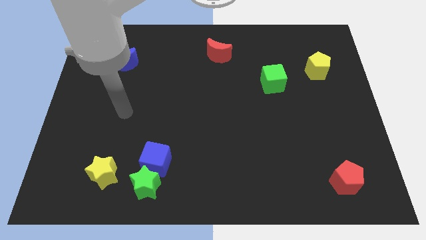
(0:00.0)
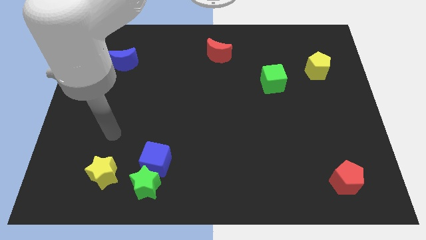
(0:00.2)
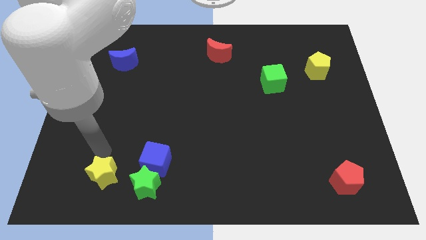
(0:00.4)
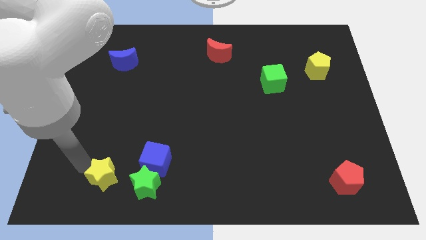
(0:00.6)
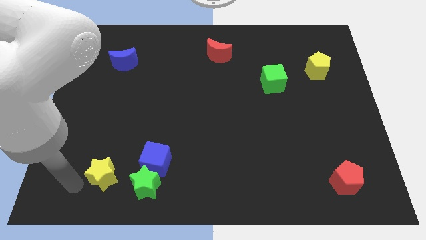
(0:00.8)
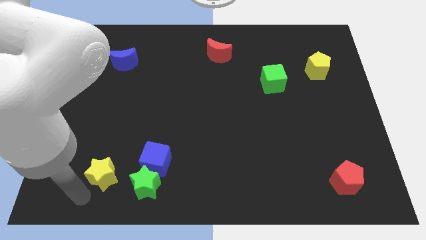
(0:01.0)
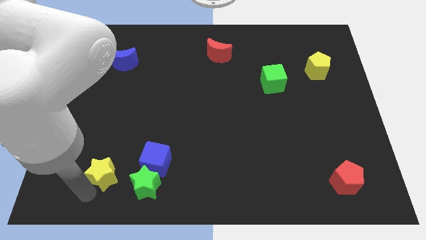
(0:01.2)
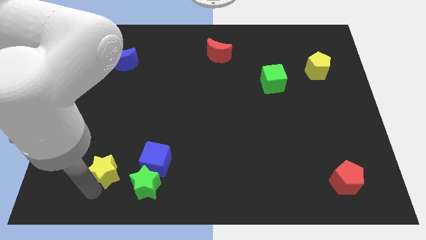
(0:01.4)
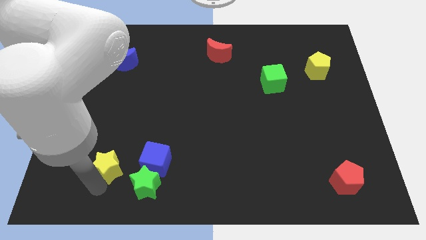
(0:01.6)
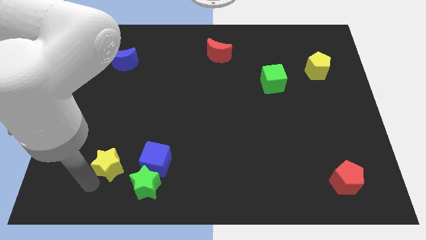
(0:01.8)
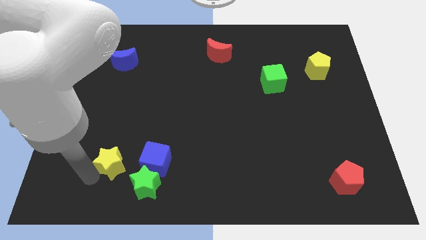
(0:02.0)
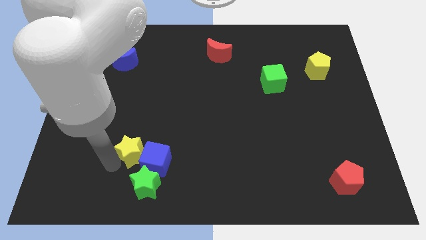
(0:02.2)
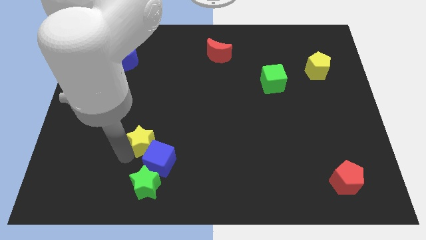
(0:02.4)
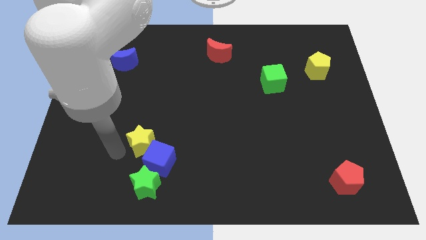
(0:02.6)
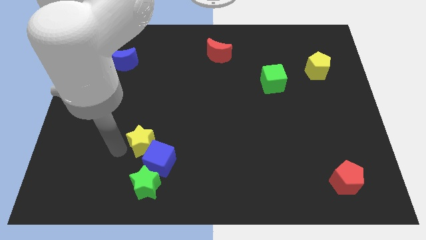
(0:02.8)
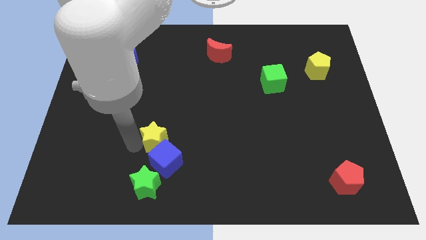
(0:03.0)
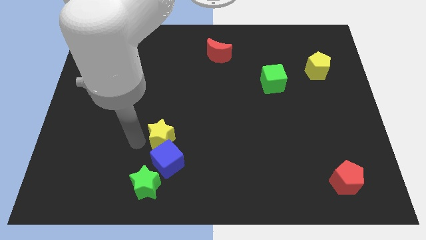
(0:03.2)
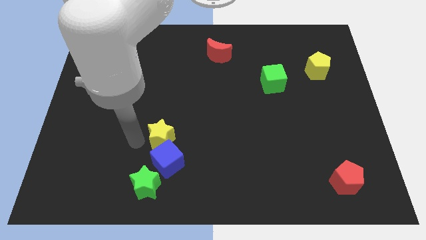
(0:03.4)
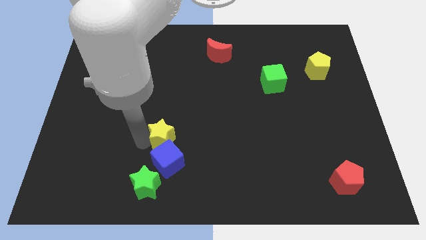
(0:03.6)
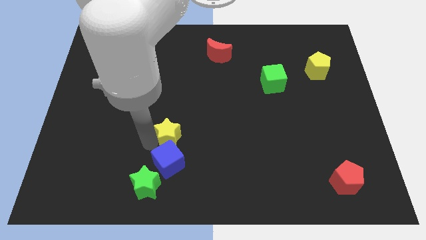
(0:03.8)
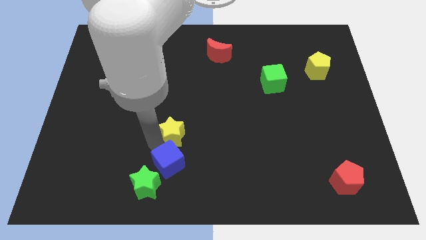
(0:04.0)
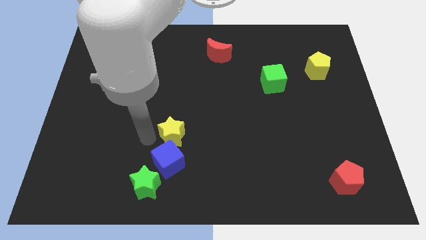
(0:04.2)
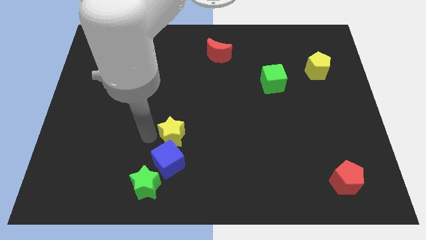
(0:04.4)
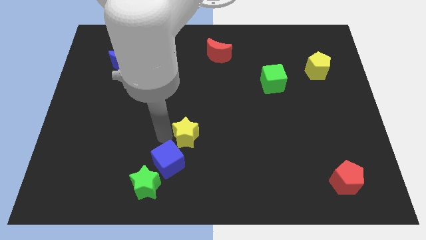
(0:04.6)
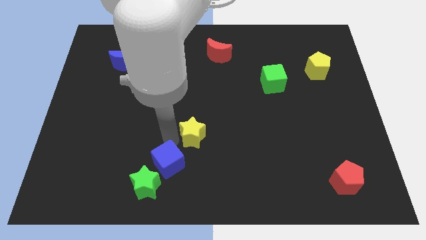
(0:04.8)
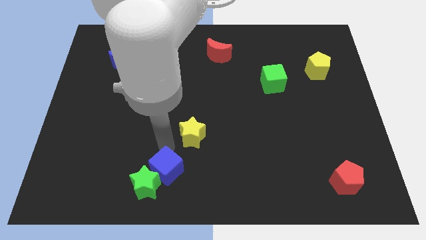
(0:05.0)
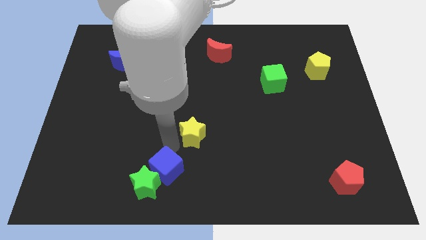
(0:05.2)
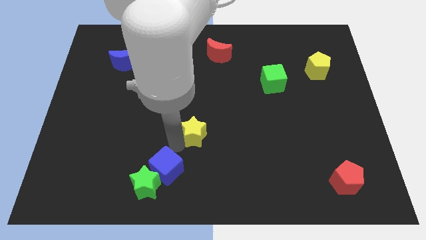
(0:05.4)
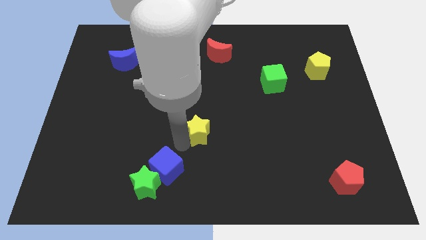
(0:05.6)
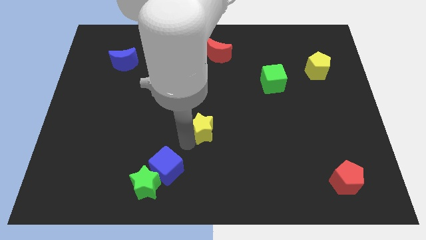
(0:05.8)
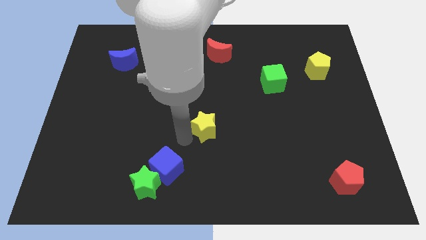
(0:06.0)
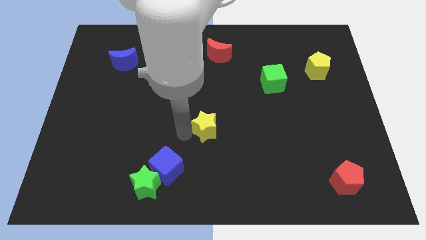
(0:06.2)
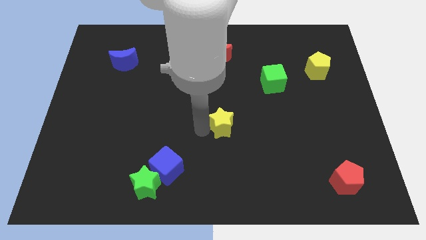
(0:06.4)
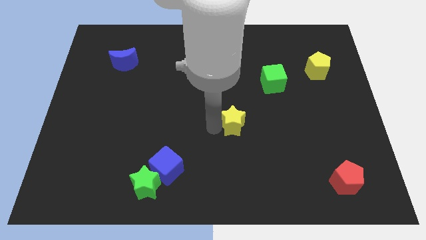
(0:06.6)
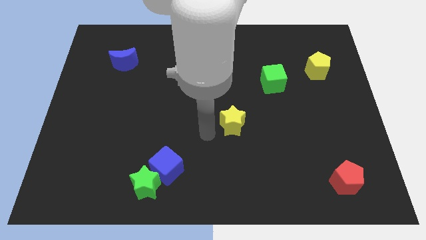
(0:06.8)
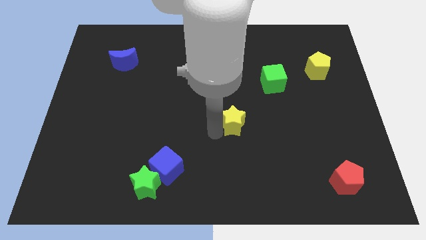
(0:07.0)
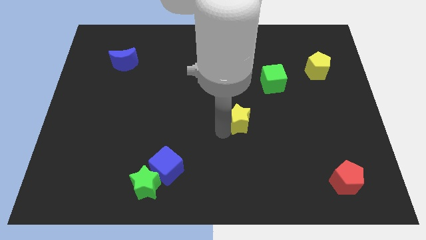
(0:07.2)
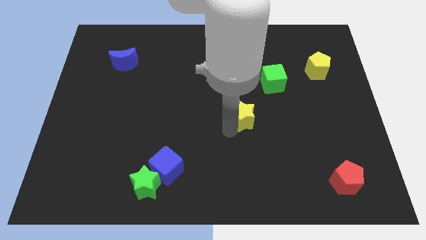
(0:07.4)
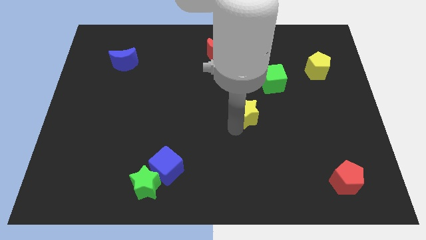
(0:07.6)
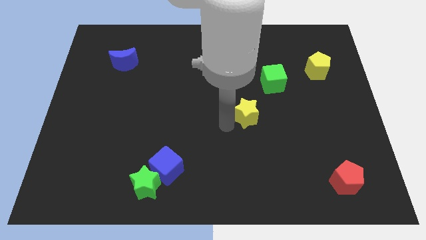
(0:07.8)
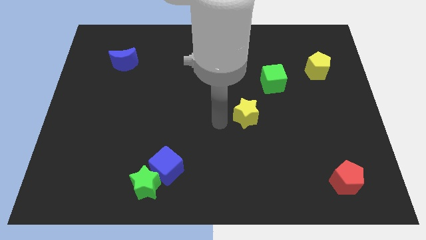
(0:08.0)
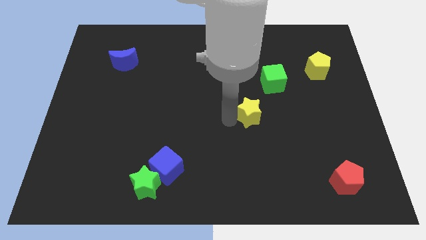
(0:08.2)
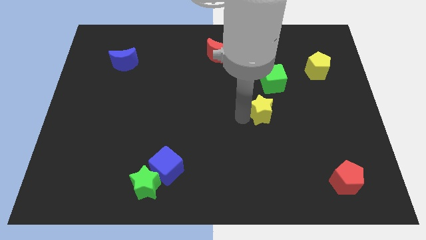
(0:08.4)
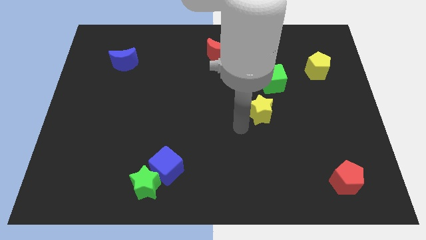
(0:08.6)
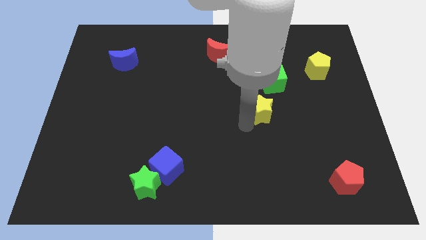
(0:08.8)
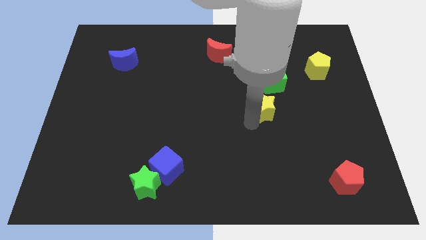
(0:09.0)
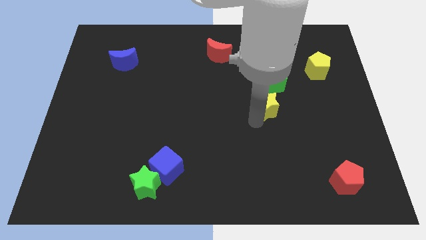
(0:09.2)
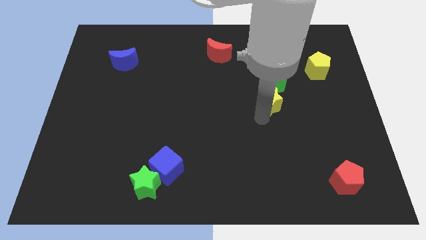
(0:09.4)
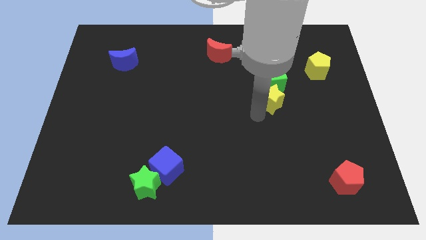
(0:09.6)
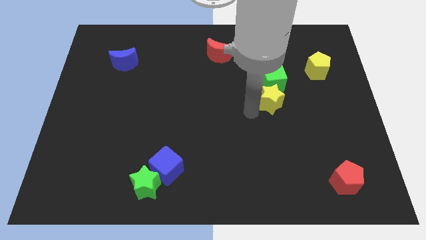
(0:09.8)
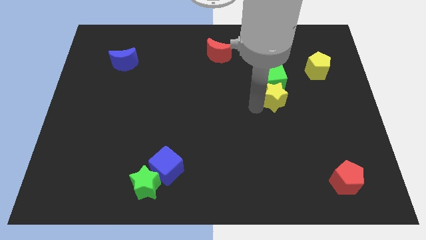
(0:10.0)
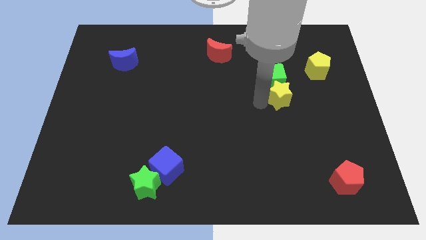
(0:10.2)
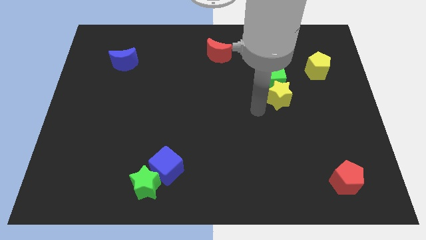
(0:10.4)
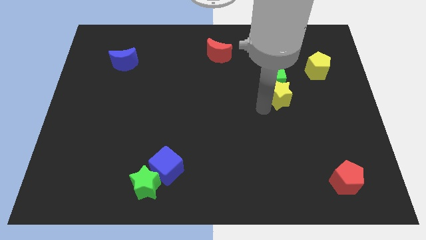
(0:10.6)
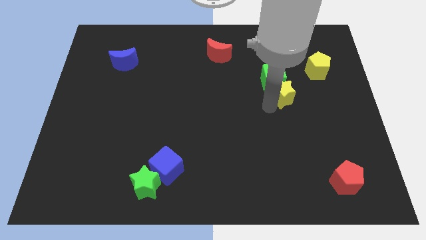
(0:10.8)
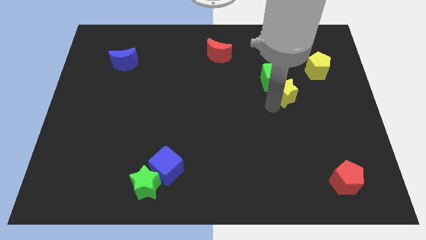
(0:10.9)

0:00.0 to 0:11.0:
move the yellow star diagonally down and to the left of the yellow pentagon

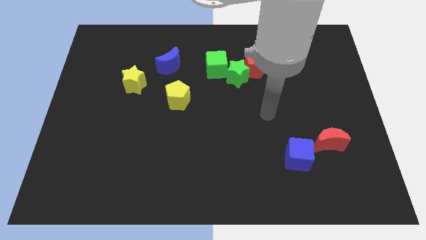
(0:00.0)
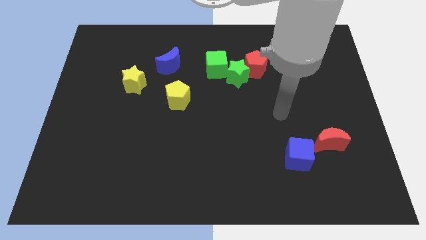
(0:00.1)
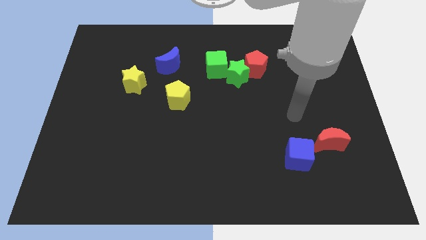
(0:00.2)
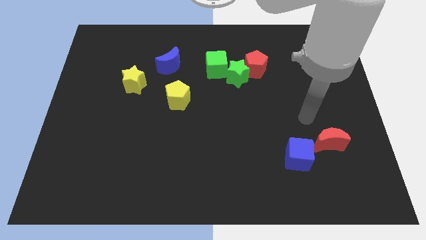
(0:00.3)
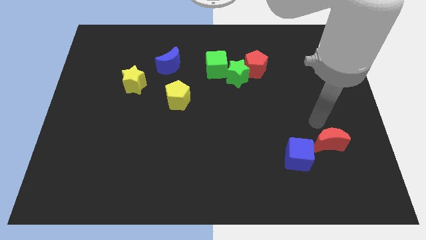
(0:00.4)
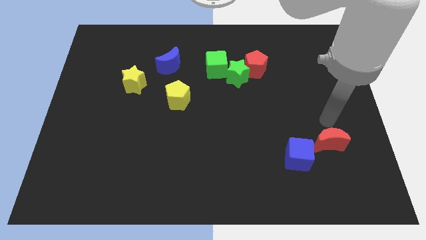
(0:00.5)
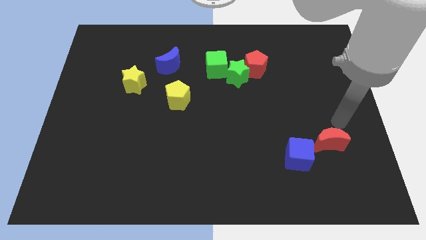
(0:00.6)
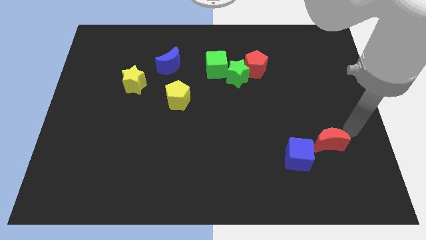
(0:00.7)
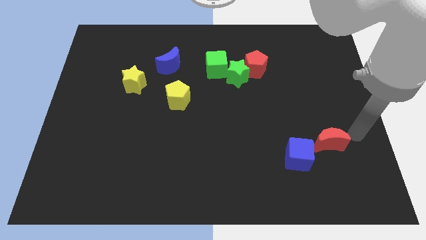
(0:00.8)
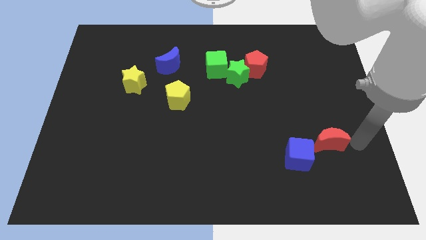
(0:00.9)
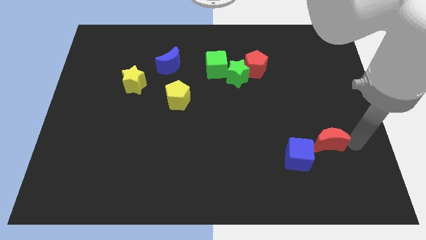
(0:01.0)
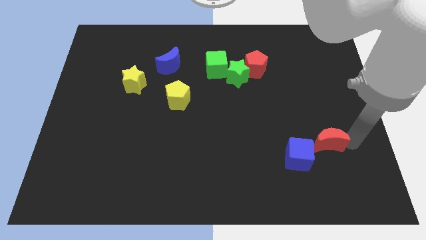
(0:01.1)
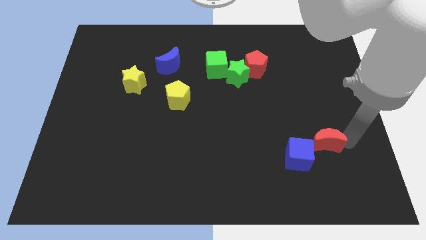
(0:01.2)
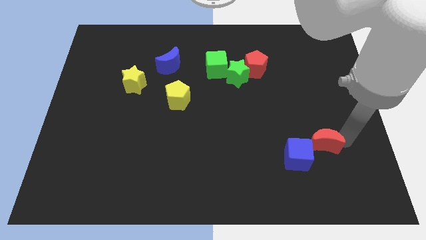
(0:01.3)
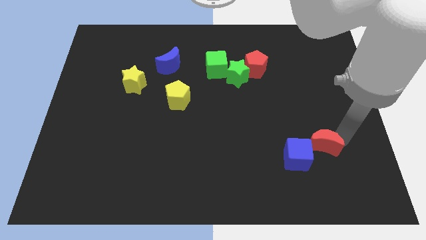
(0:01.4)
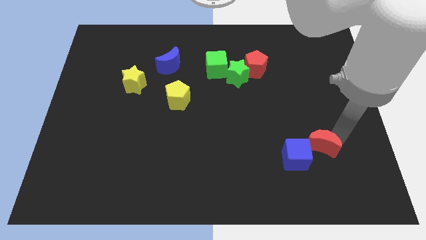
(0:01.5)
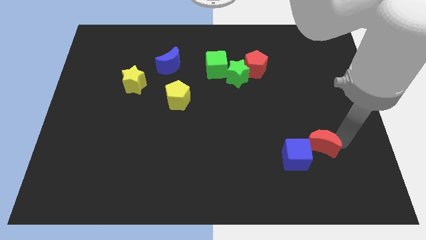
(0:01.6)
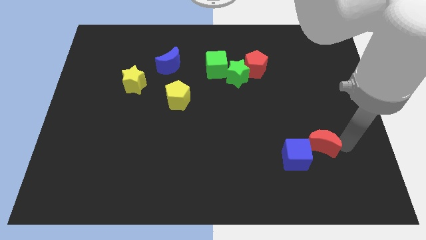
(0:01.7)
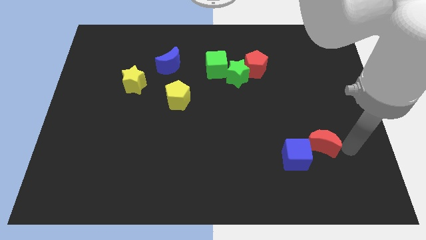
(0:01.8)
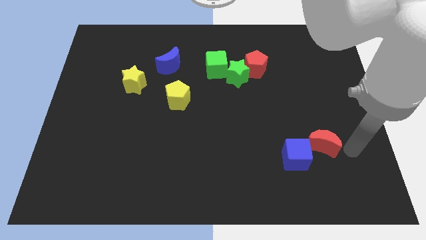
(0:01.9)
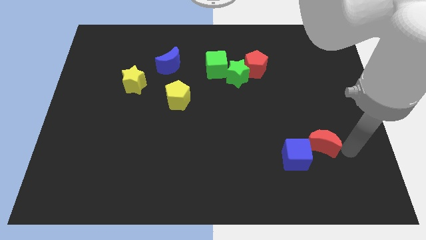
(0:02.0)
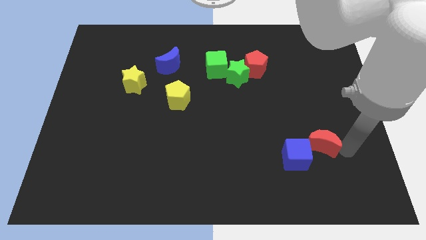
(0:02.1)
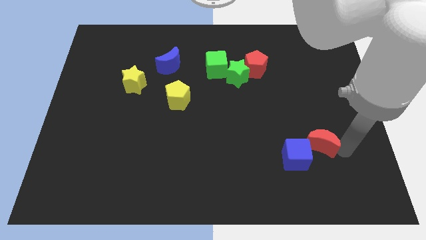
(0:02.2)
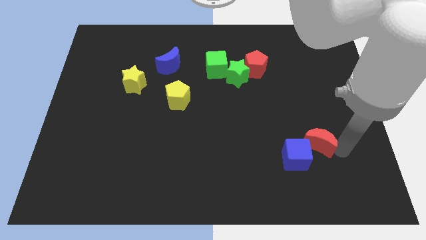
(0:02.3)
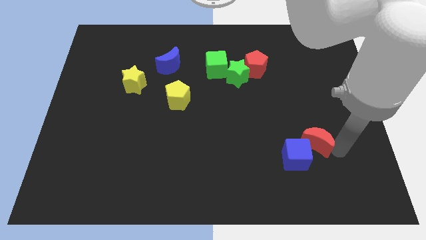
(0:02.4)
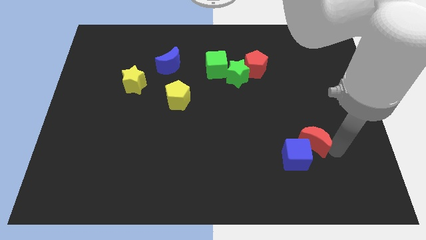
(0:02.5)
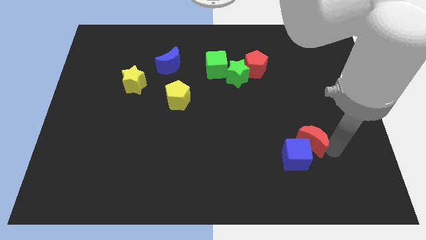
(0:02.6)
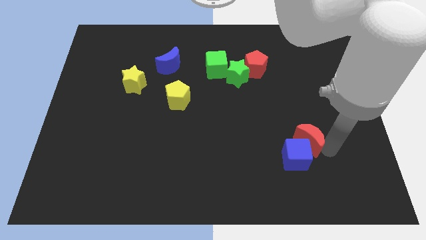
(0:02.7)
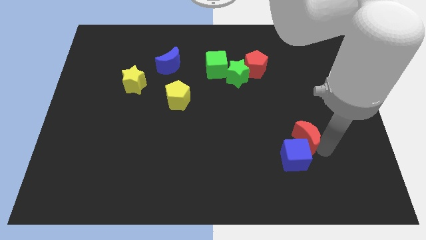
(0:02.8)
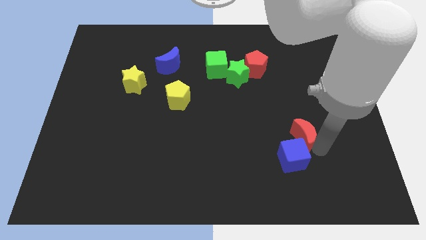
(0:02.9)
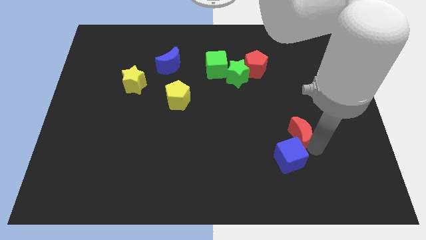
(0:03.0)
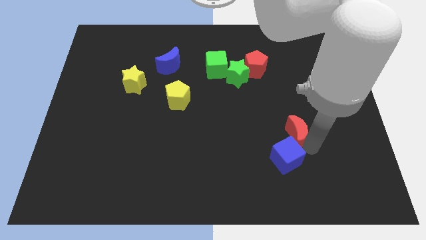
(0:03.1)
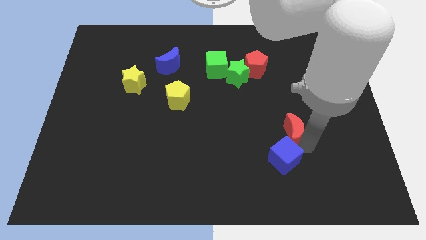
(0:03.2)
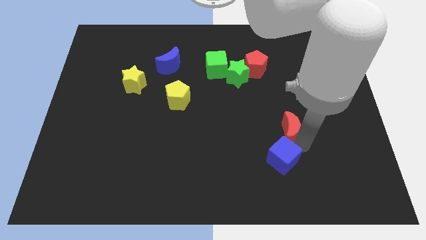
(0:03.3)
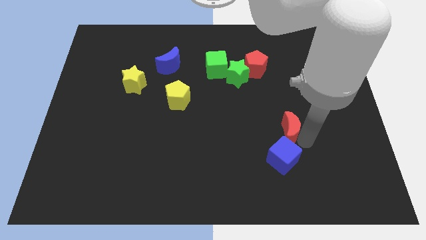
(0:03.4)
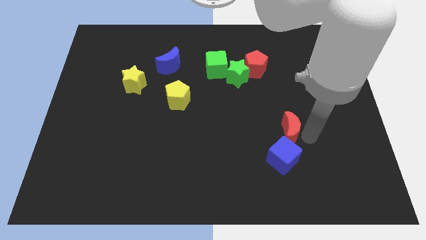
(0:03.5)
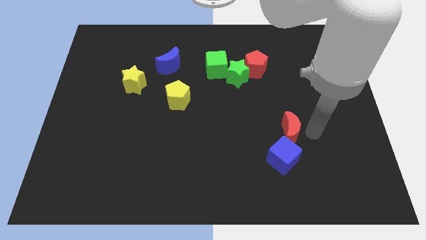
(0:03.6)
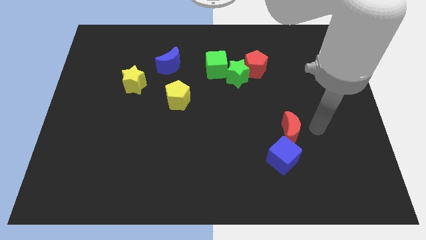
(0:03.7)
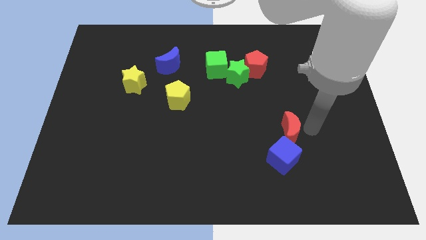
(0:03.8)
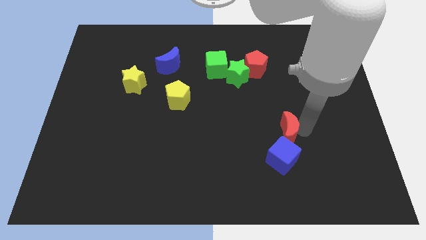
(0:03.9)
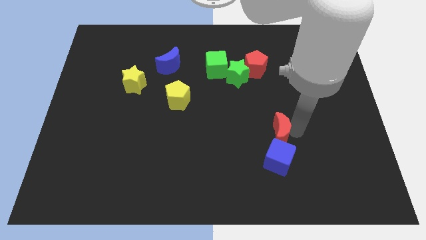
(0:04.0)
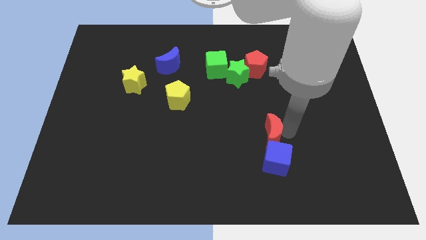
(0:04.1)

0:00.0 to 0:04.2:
move the red moon diagonally up and to the left of the blue cube
